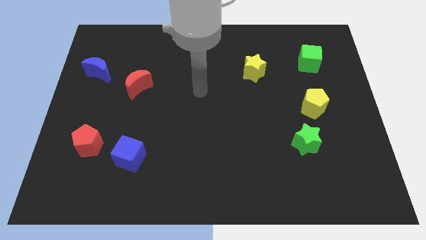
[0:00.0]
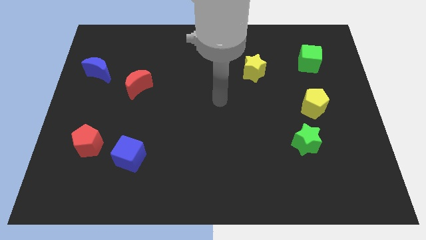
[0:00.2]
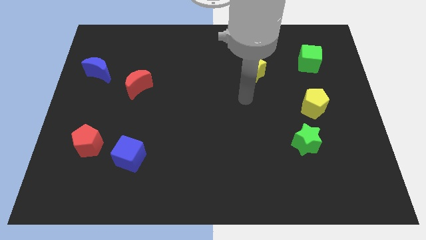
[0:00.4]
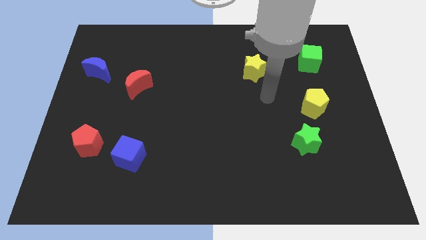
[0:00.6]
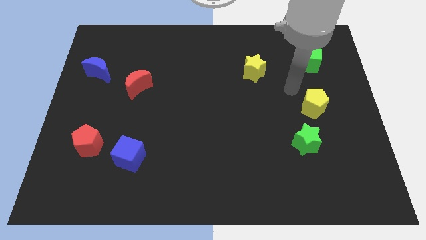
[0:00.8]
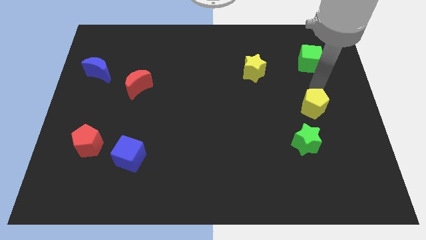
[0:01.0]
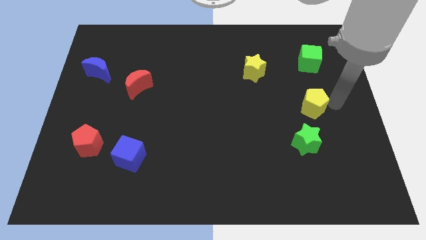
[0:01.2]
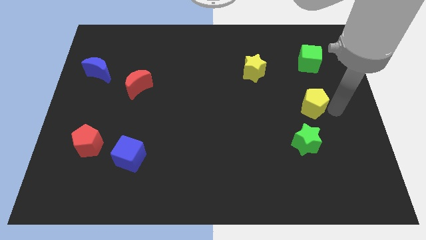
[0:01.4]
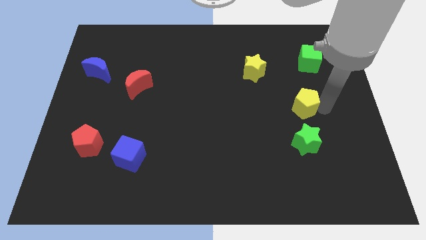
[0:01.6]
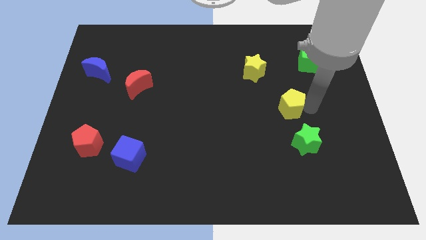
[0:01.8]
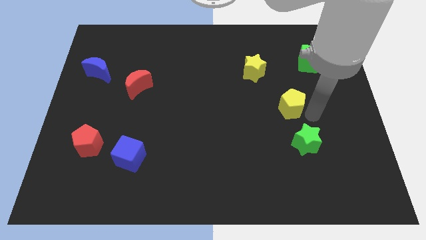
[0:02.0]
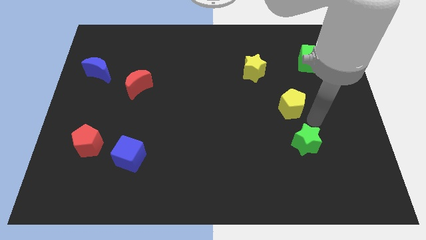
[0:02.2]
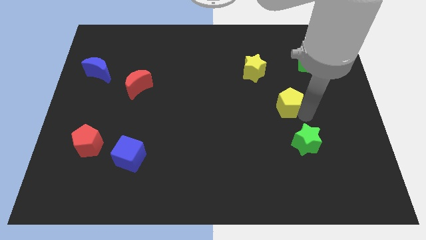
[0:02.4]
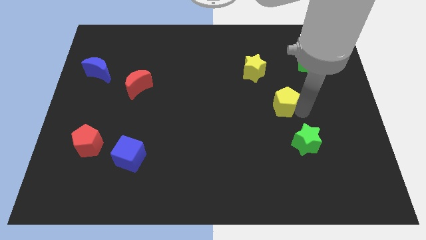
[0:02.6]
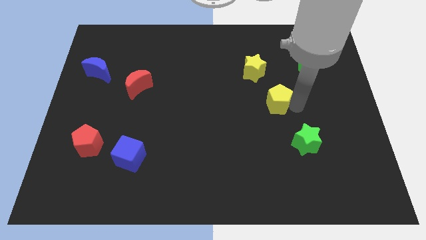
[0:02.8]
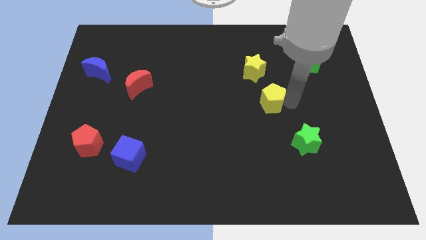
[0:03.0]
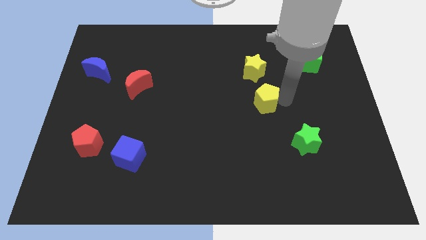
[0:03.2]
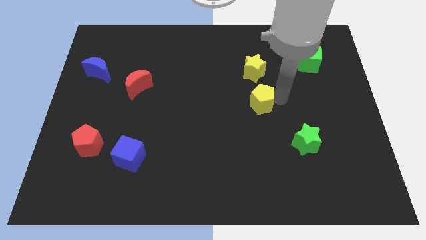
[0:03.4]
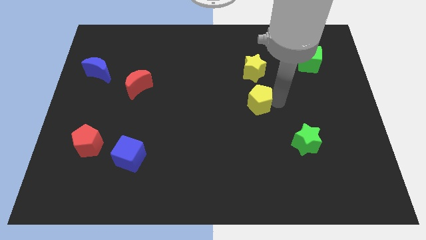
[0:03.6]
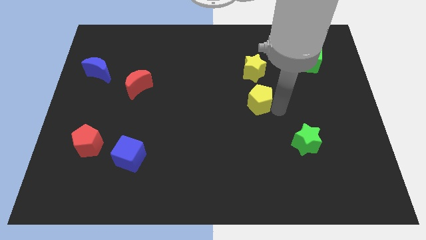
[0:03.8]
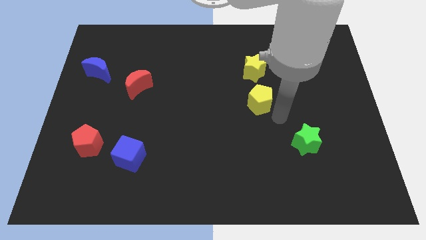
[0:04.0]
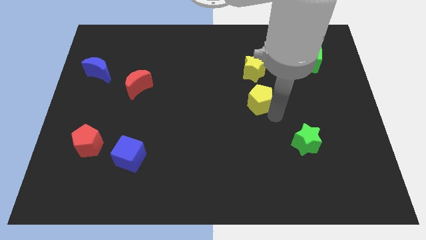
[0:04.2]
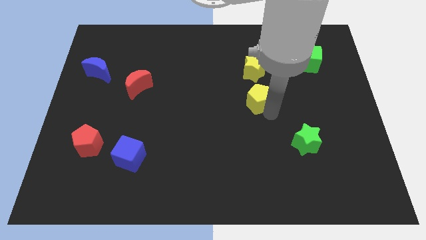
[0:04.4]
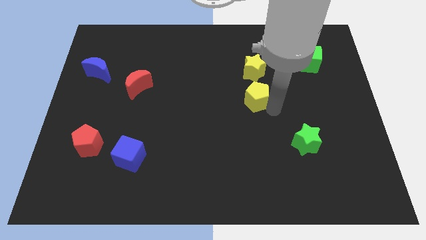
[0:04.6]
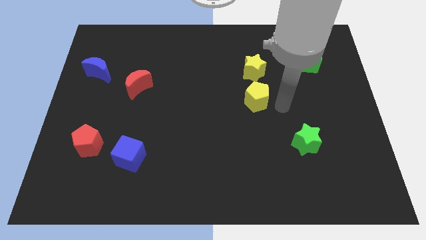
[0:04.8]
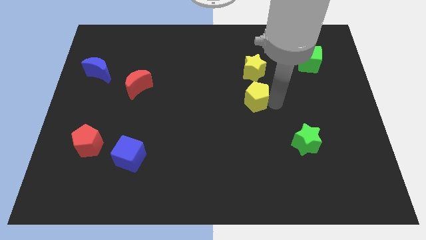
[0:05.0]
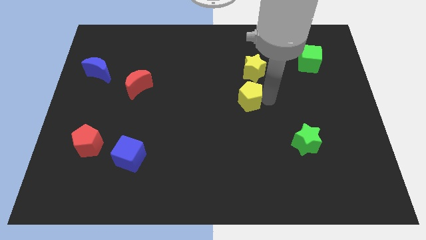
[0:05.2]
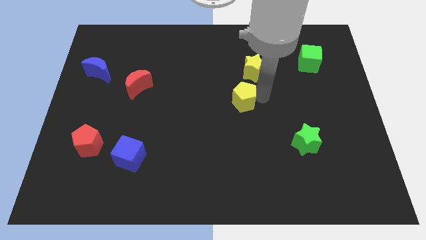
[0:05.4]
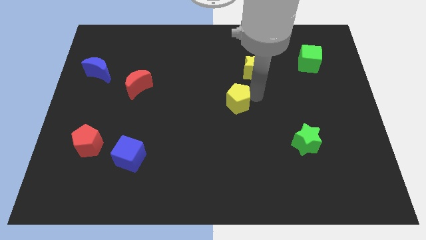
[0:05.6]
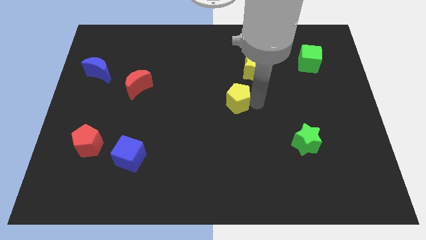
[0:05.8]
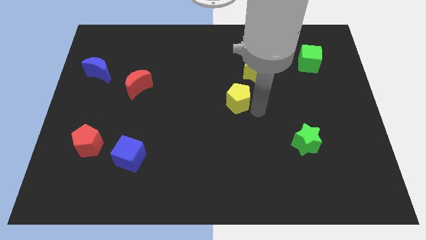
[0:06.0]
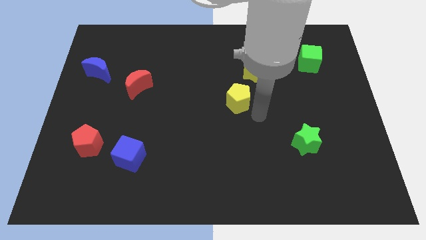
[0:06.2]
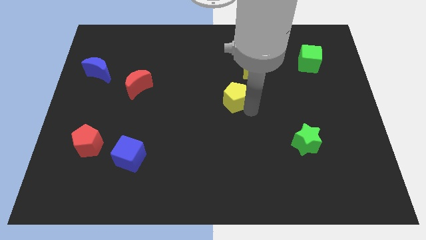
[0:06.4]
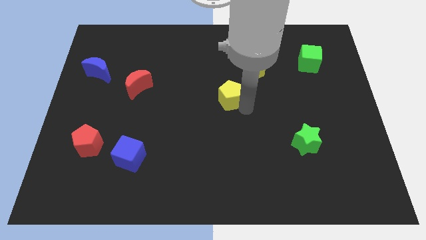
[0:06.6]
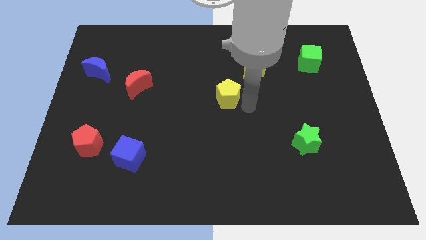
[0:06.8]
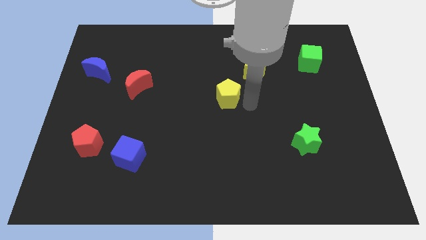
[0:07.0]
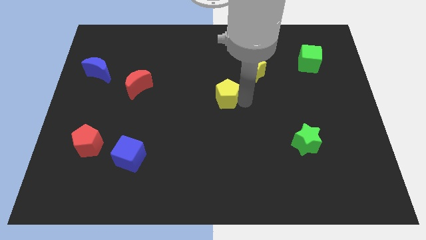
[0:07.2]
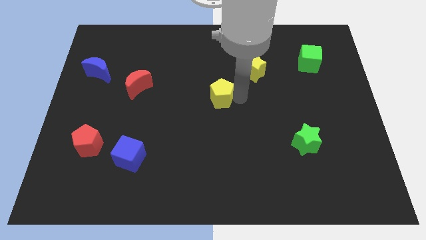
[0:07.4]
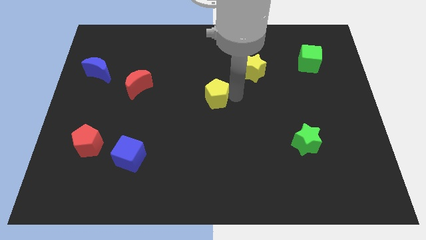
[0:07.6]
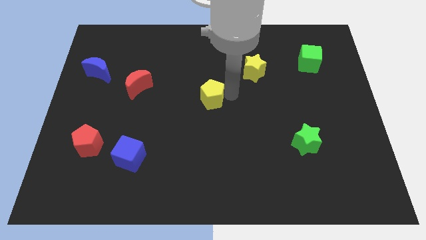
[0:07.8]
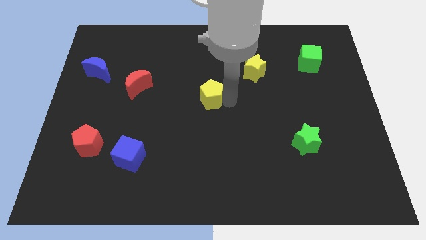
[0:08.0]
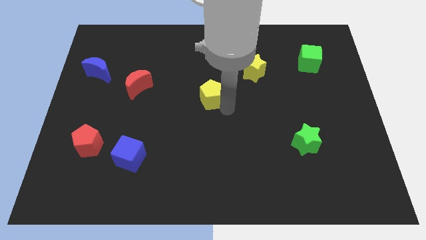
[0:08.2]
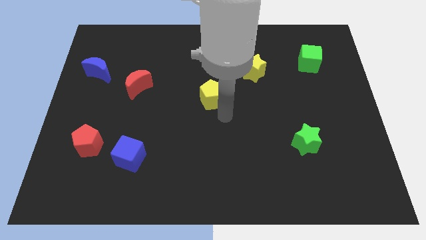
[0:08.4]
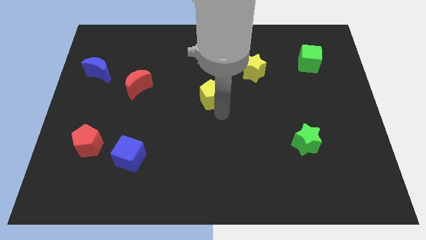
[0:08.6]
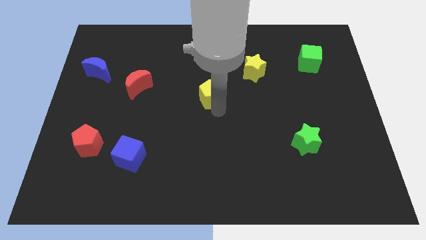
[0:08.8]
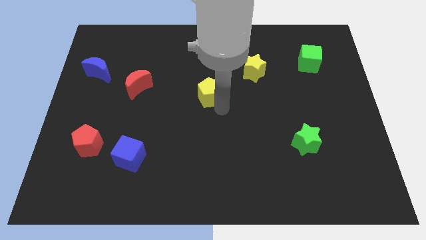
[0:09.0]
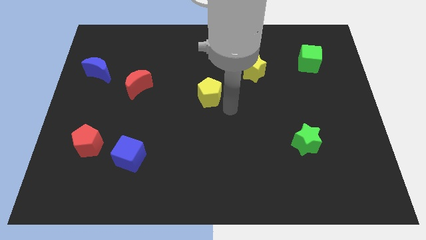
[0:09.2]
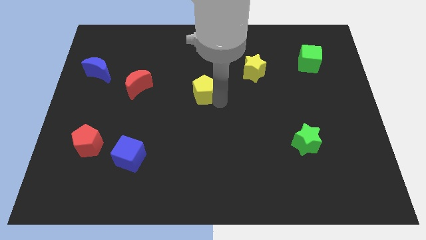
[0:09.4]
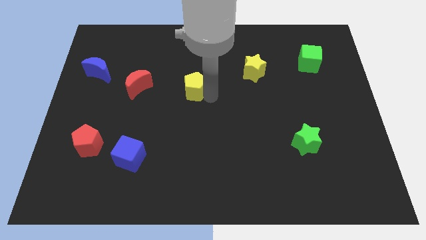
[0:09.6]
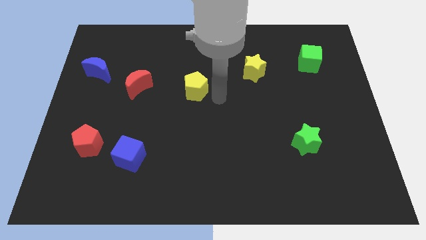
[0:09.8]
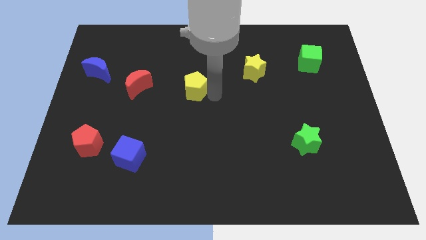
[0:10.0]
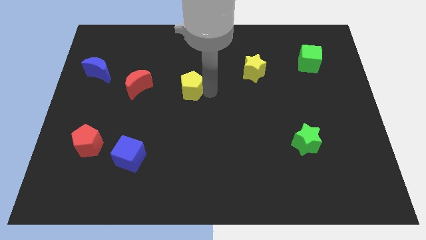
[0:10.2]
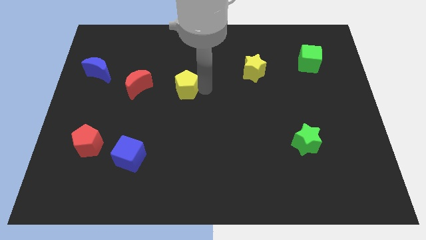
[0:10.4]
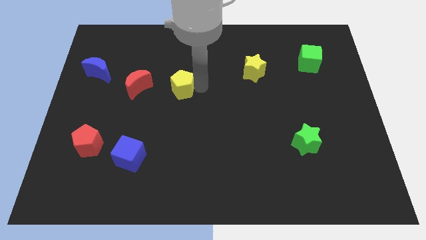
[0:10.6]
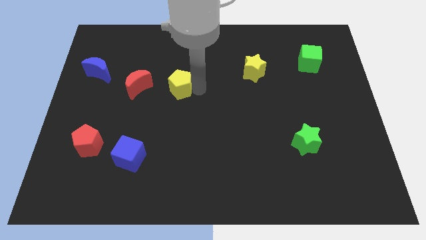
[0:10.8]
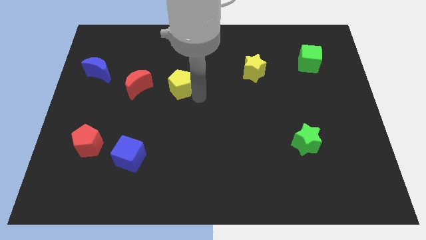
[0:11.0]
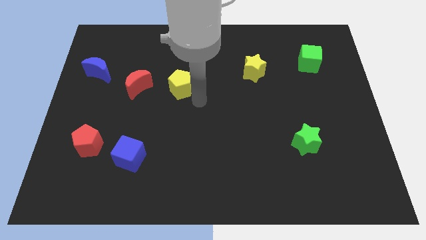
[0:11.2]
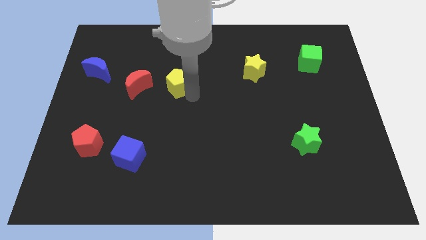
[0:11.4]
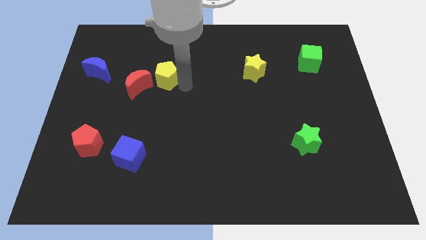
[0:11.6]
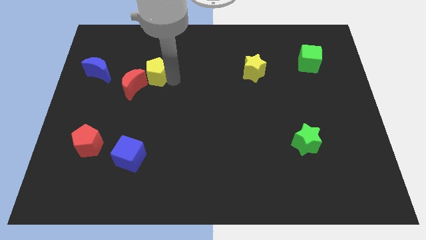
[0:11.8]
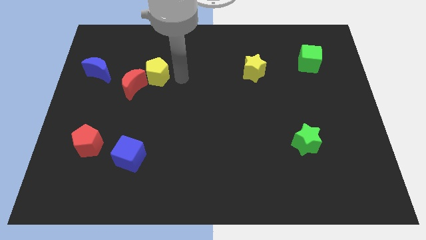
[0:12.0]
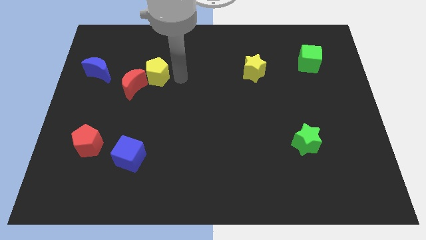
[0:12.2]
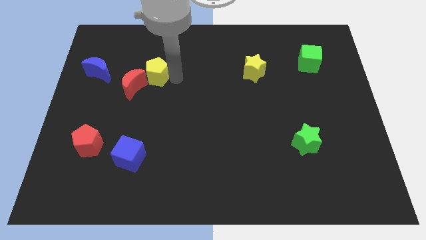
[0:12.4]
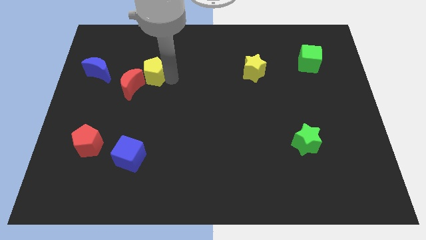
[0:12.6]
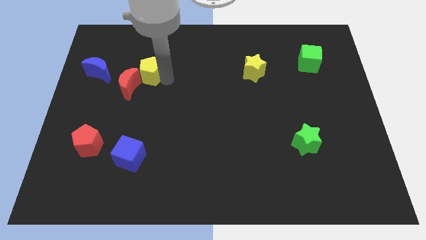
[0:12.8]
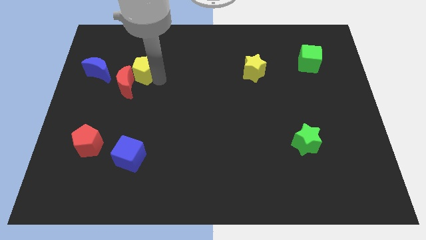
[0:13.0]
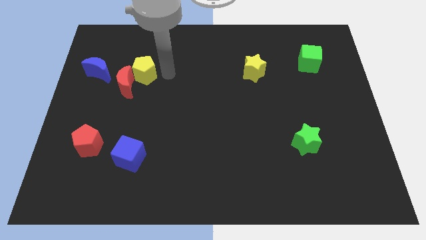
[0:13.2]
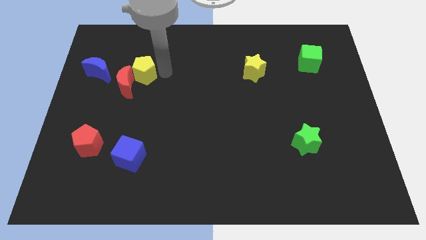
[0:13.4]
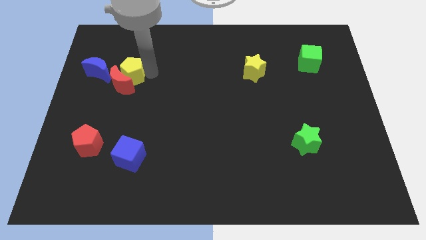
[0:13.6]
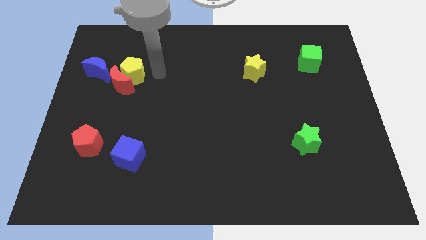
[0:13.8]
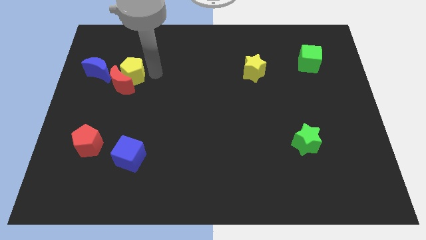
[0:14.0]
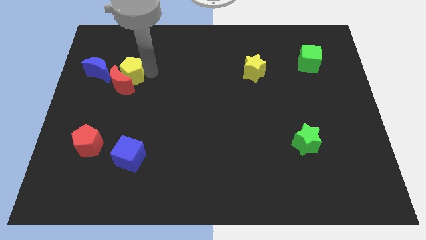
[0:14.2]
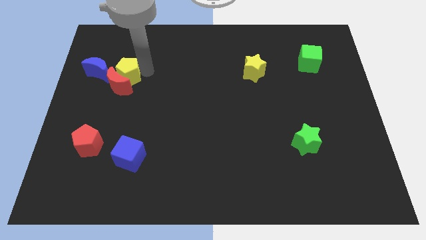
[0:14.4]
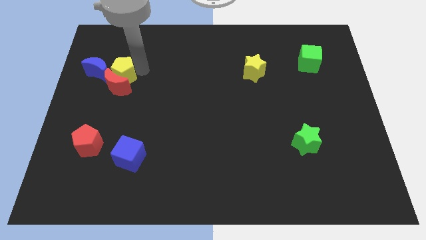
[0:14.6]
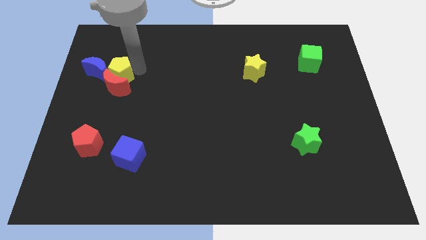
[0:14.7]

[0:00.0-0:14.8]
move the yellow pentagon next to the blue moon
